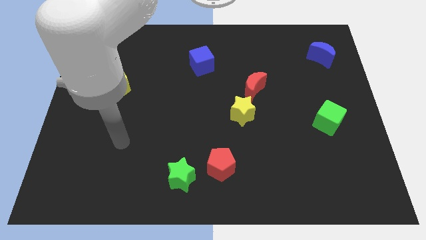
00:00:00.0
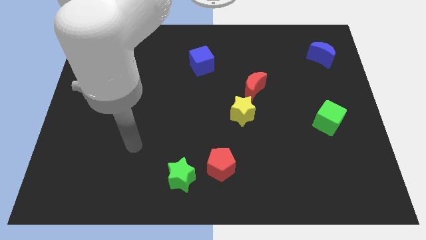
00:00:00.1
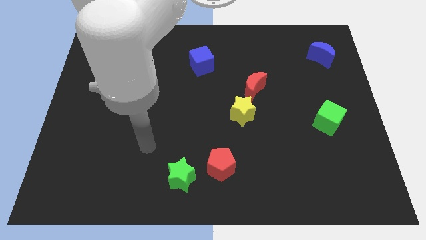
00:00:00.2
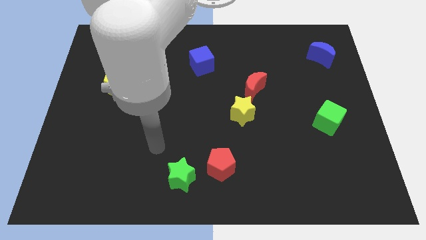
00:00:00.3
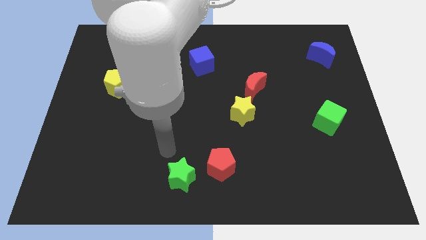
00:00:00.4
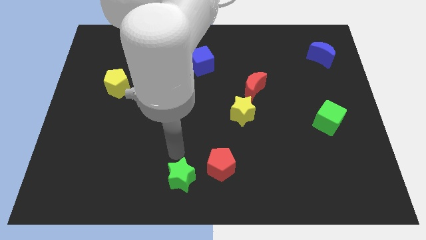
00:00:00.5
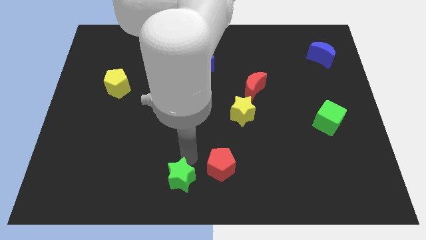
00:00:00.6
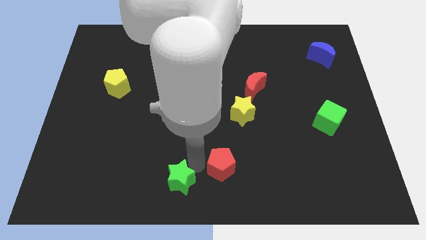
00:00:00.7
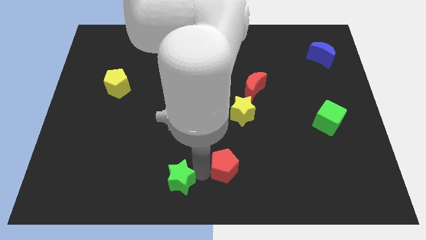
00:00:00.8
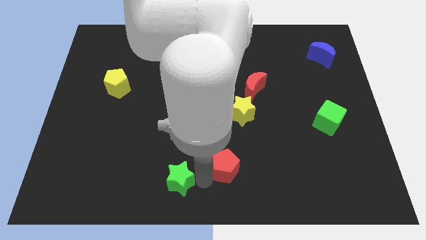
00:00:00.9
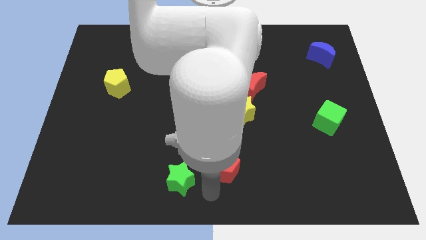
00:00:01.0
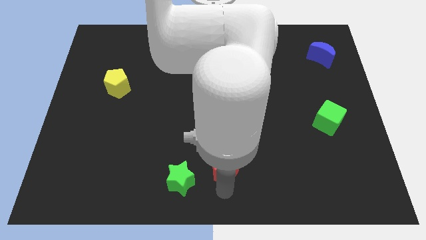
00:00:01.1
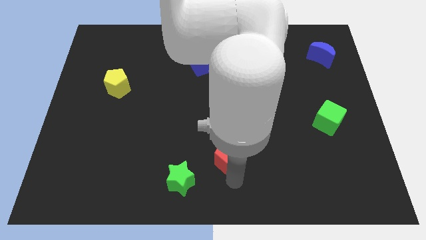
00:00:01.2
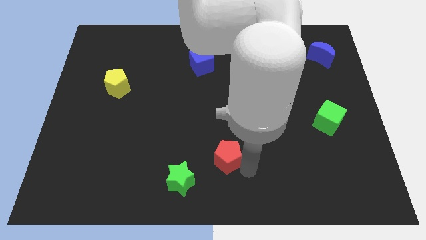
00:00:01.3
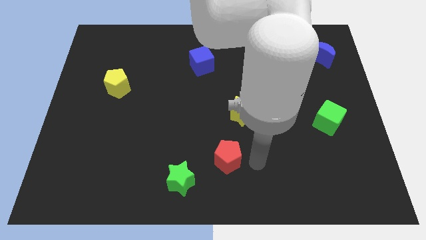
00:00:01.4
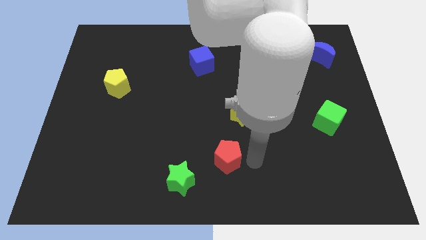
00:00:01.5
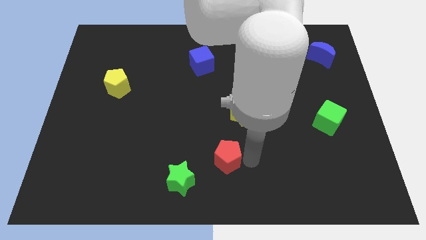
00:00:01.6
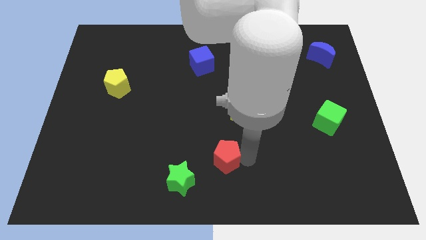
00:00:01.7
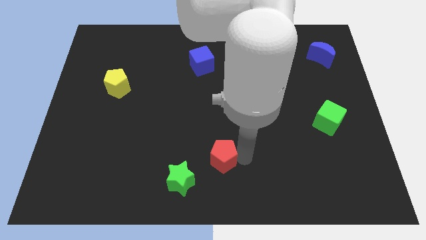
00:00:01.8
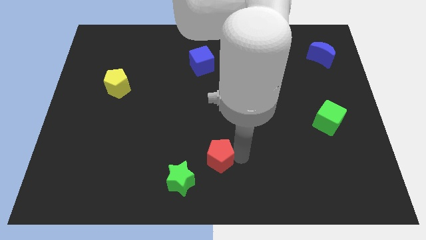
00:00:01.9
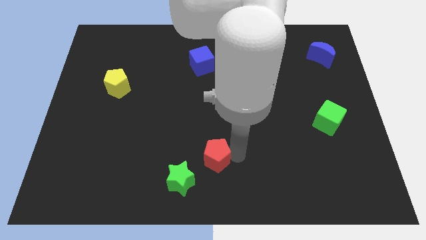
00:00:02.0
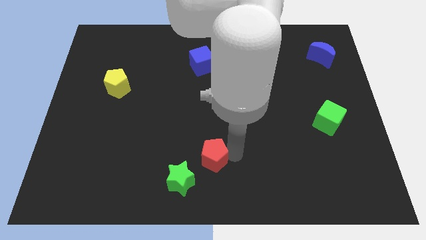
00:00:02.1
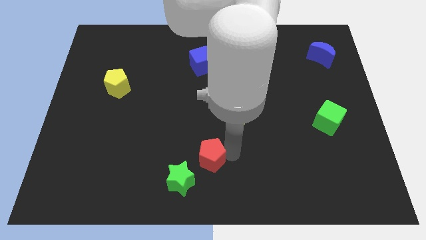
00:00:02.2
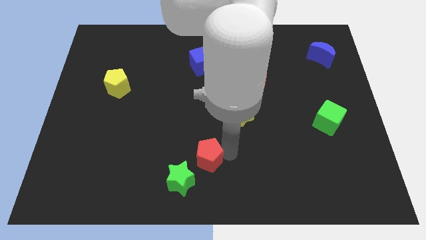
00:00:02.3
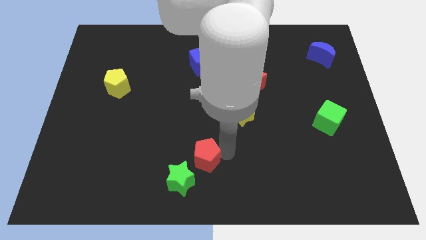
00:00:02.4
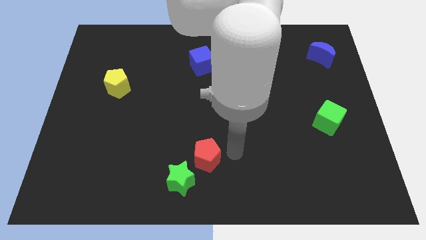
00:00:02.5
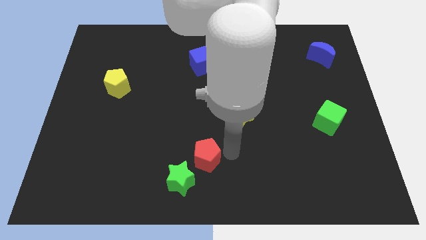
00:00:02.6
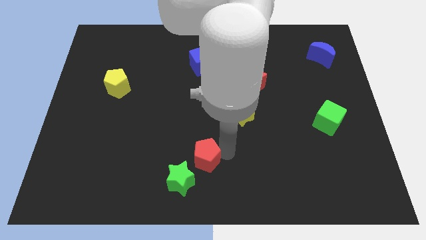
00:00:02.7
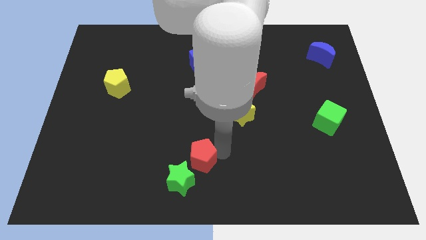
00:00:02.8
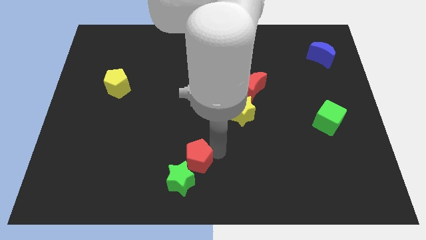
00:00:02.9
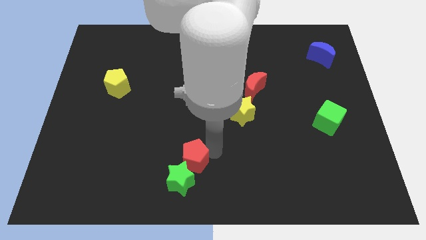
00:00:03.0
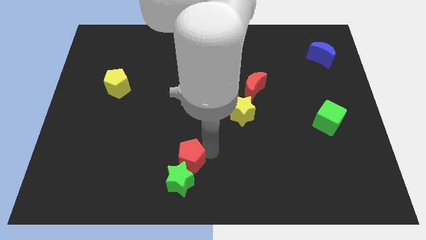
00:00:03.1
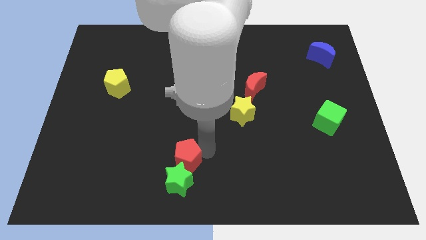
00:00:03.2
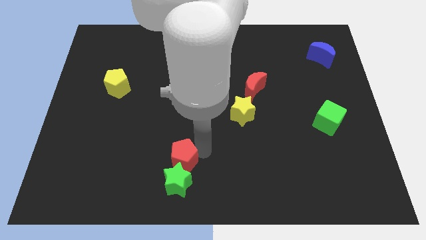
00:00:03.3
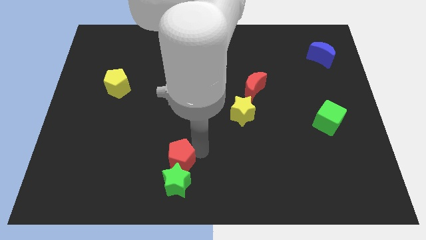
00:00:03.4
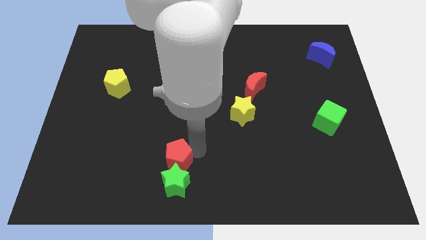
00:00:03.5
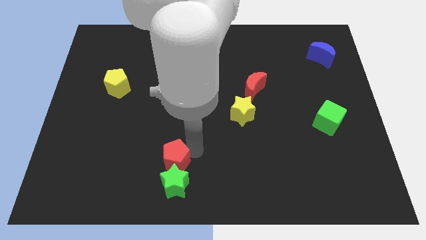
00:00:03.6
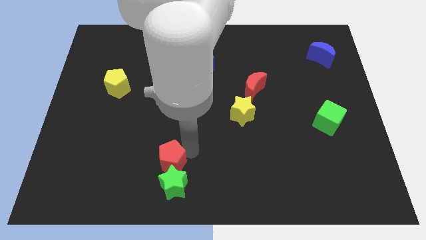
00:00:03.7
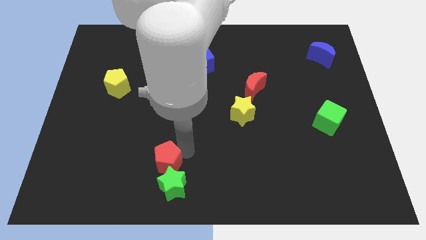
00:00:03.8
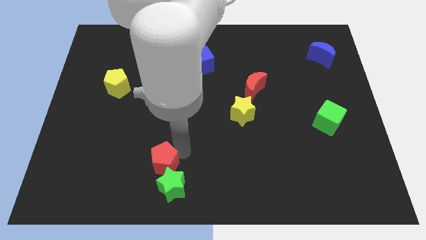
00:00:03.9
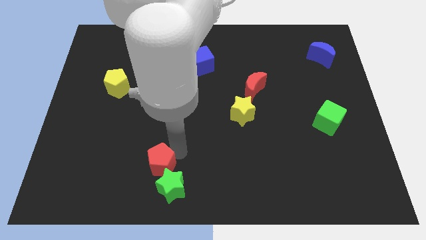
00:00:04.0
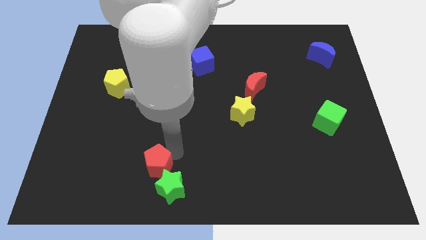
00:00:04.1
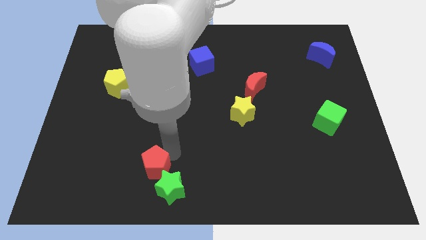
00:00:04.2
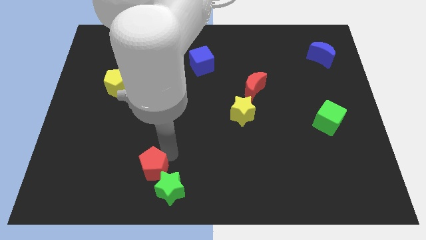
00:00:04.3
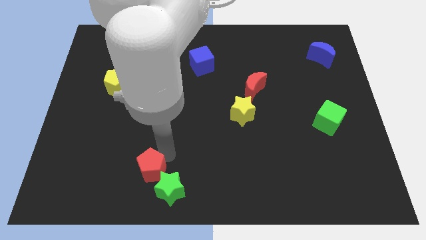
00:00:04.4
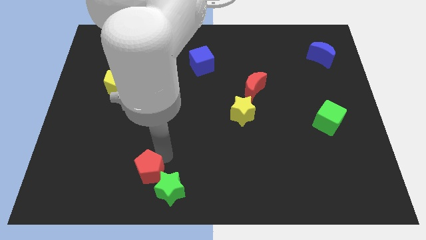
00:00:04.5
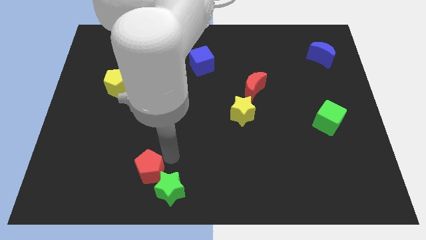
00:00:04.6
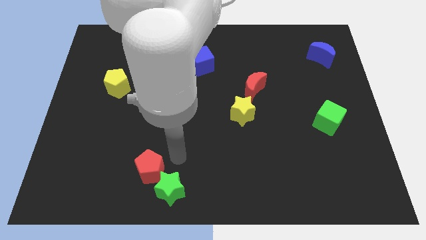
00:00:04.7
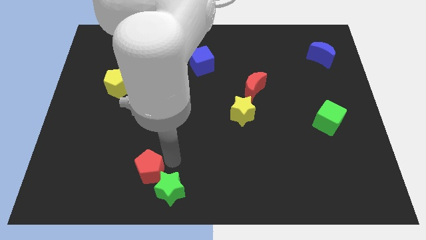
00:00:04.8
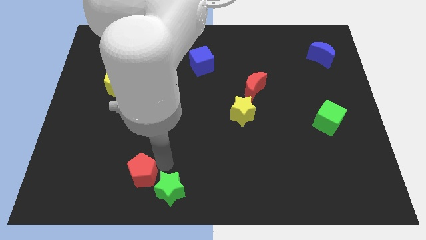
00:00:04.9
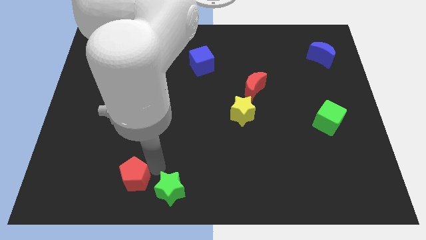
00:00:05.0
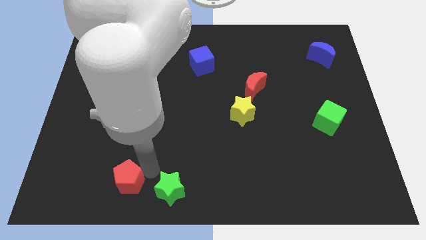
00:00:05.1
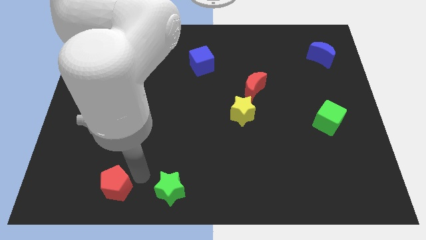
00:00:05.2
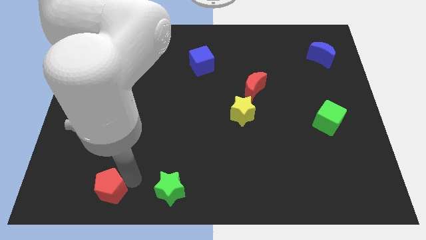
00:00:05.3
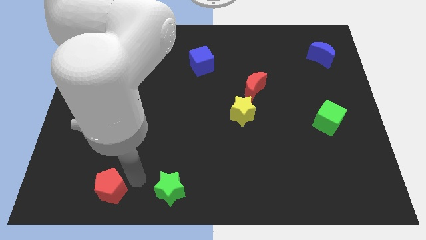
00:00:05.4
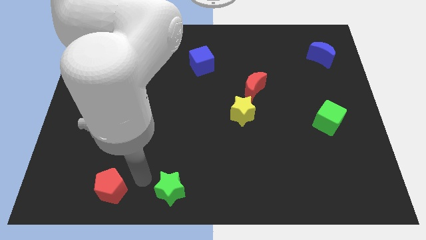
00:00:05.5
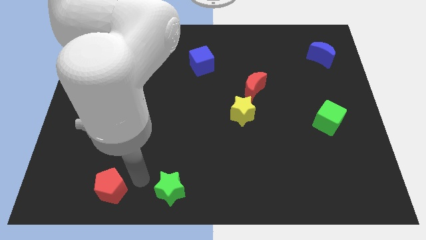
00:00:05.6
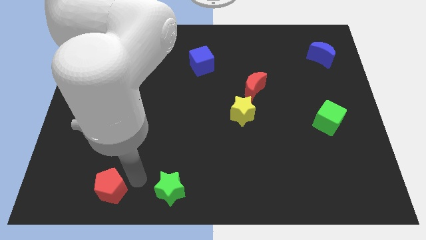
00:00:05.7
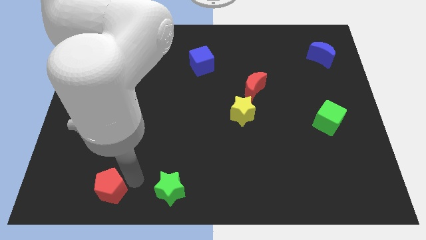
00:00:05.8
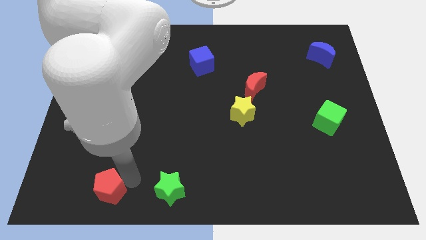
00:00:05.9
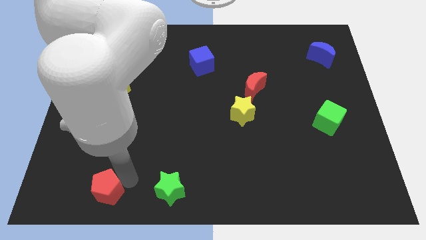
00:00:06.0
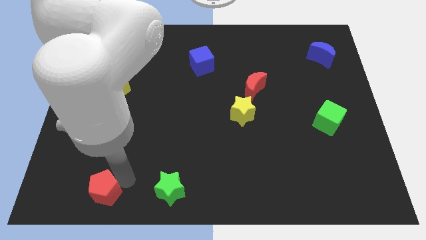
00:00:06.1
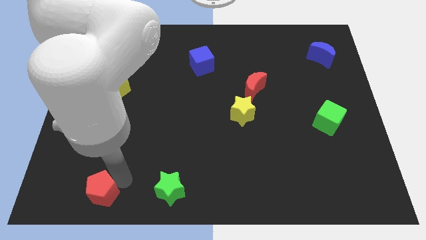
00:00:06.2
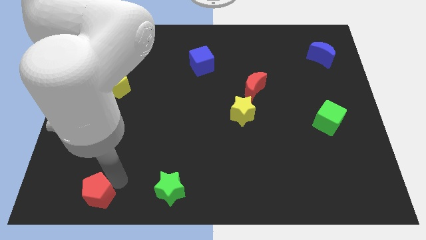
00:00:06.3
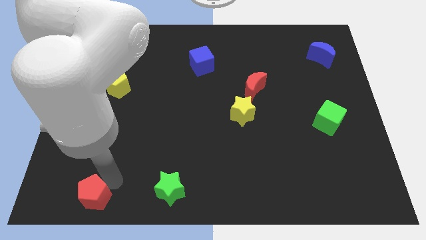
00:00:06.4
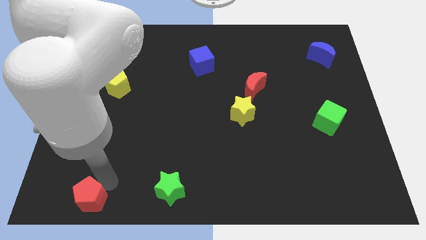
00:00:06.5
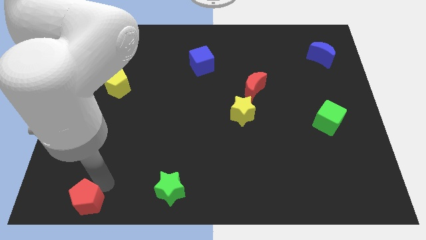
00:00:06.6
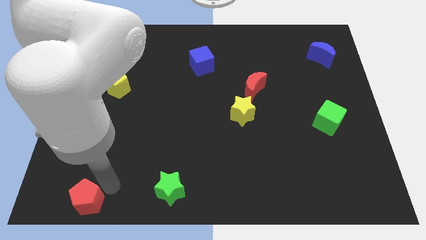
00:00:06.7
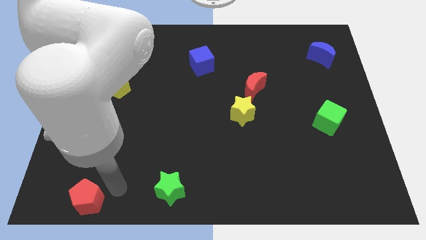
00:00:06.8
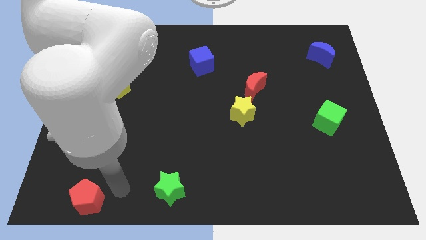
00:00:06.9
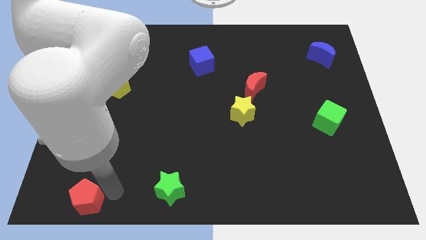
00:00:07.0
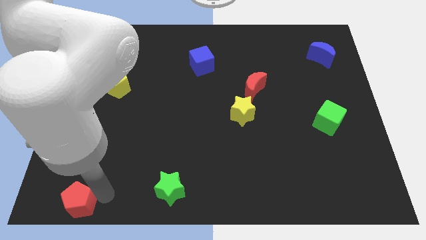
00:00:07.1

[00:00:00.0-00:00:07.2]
slide the red pentagon to the bottom left corner
